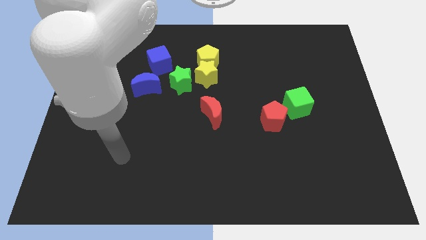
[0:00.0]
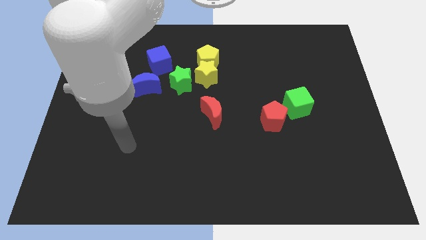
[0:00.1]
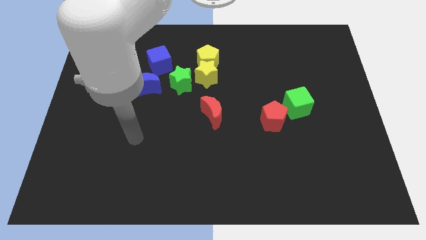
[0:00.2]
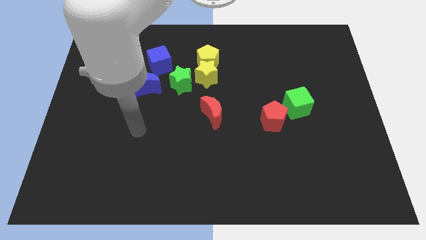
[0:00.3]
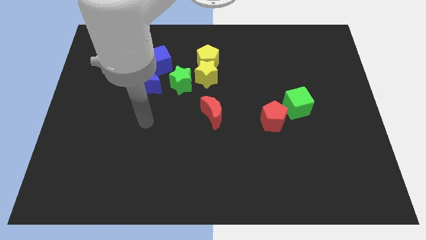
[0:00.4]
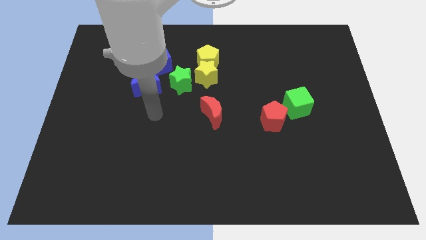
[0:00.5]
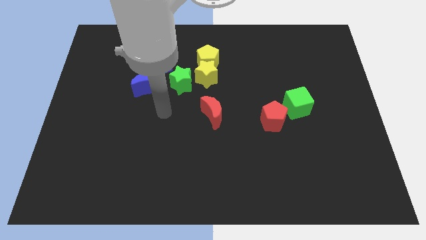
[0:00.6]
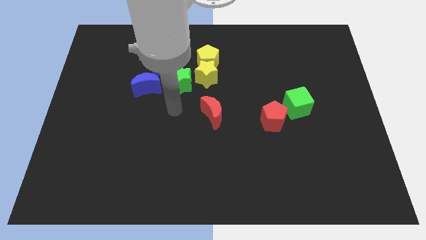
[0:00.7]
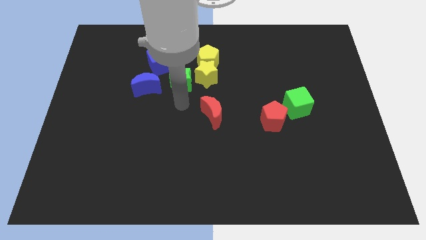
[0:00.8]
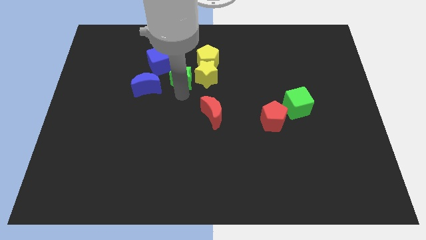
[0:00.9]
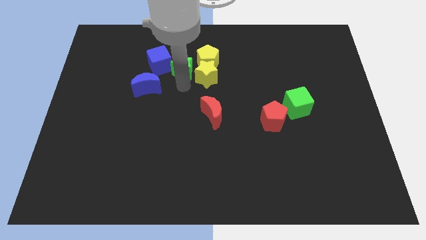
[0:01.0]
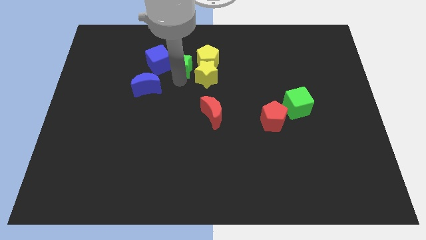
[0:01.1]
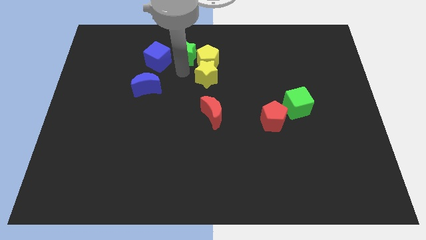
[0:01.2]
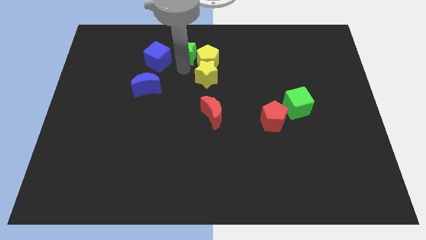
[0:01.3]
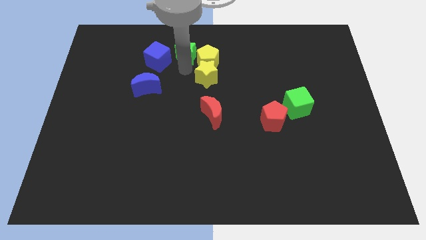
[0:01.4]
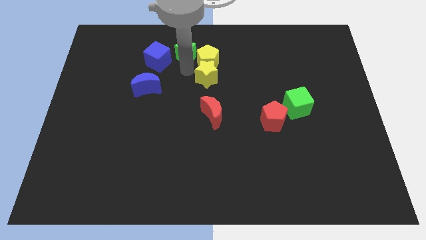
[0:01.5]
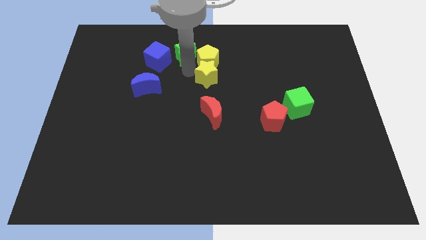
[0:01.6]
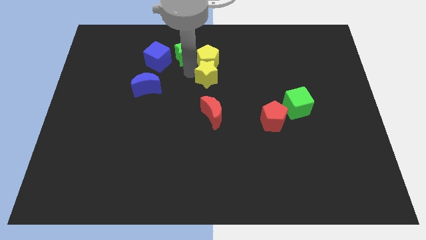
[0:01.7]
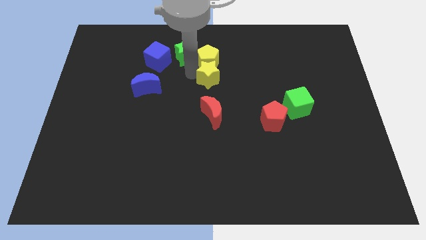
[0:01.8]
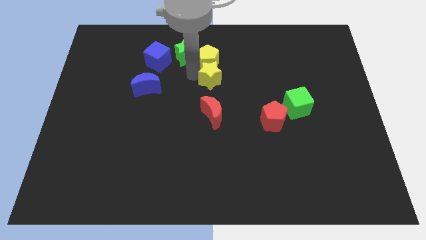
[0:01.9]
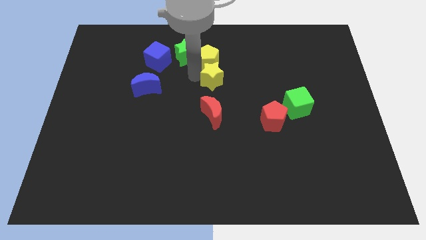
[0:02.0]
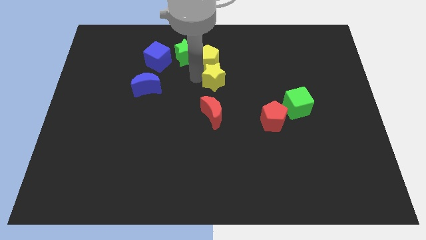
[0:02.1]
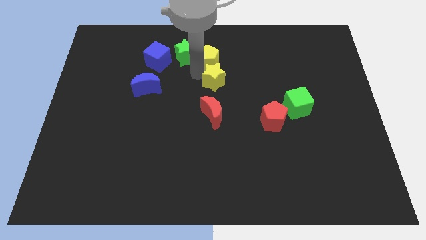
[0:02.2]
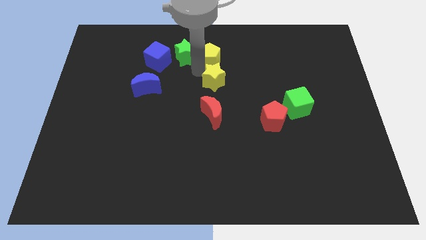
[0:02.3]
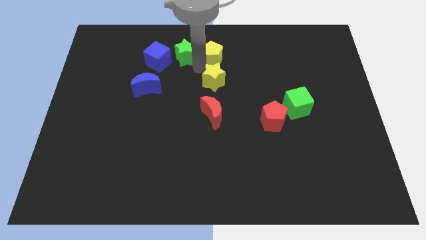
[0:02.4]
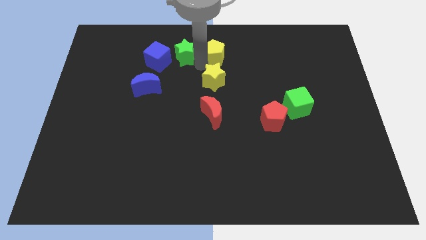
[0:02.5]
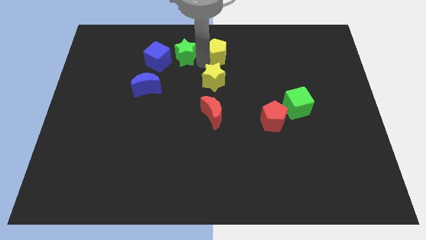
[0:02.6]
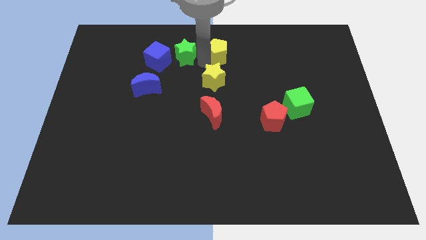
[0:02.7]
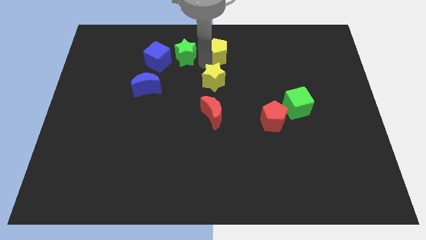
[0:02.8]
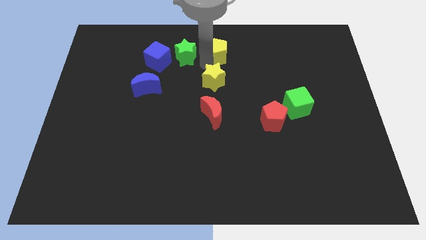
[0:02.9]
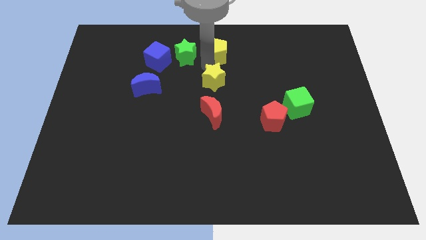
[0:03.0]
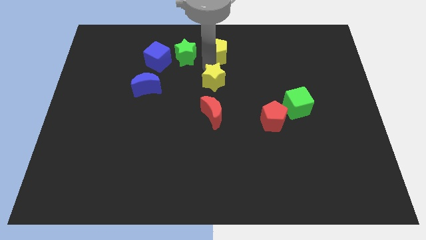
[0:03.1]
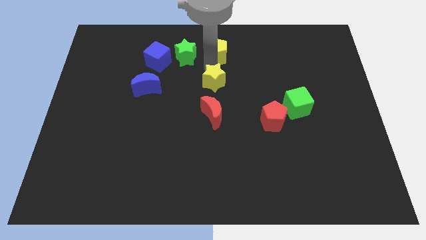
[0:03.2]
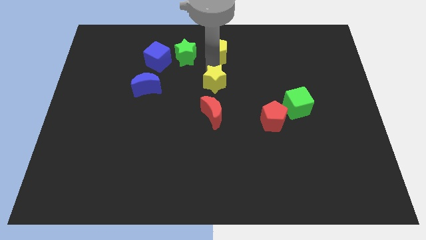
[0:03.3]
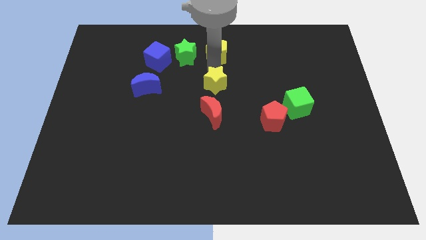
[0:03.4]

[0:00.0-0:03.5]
move the yellow star away from the yellow pentagon and green star

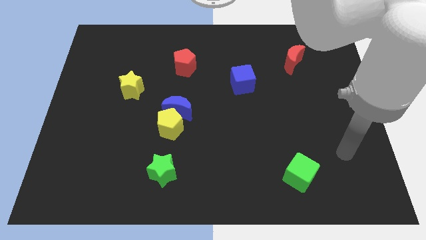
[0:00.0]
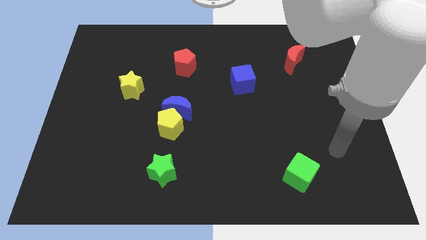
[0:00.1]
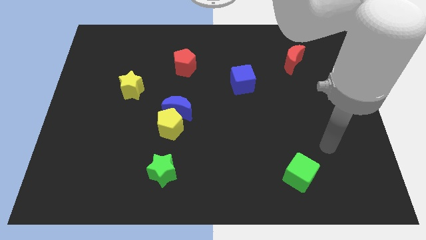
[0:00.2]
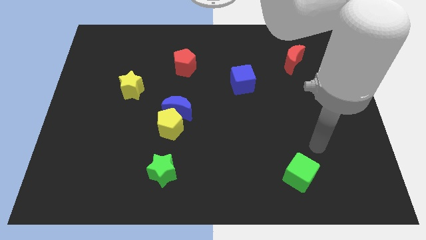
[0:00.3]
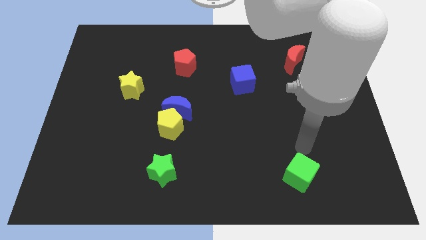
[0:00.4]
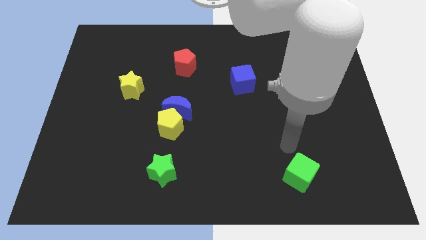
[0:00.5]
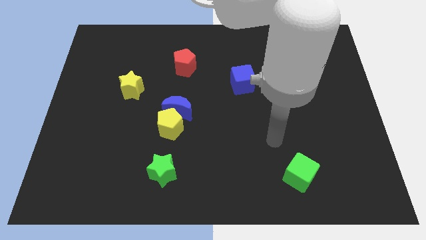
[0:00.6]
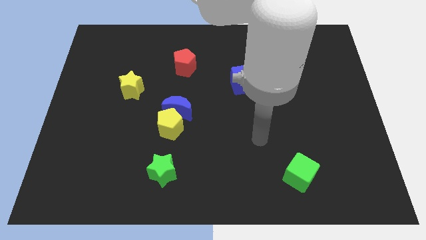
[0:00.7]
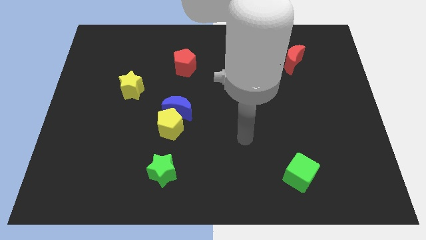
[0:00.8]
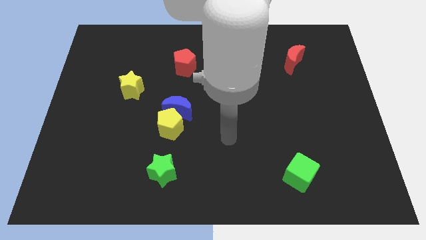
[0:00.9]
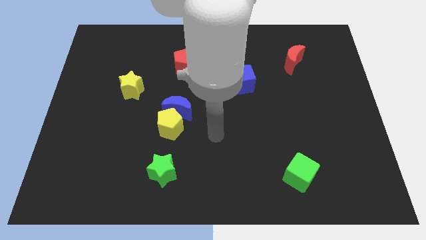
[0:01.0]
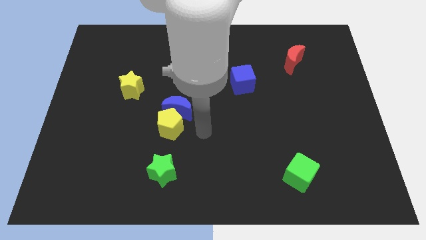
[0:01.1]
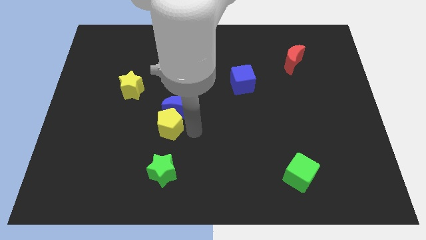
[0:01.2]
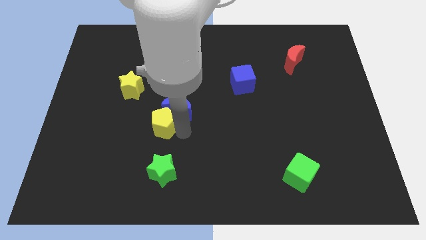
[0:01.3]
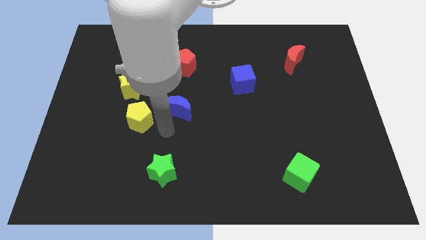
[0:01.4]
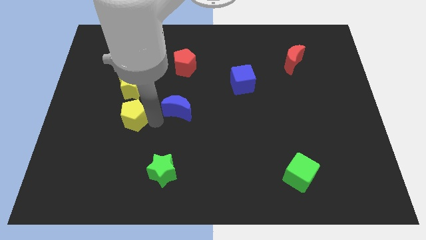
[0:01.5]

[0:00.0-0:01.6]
move the blue moon away from the yellow pentagon

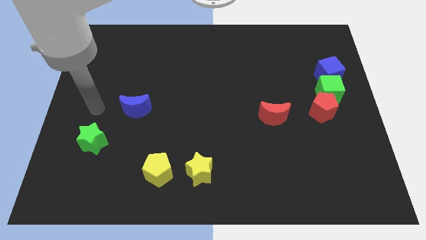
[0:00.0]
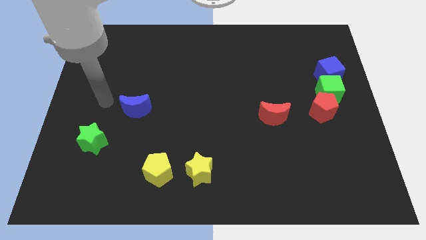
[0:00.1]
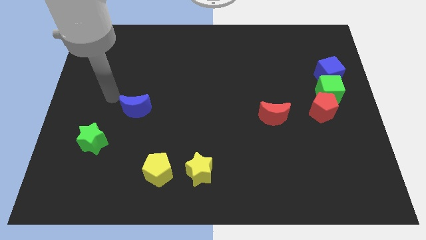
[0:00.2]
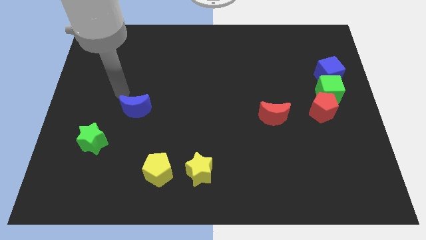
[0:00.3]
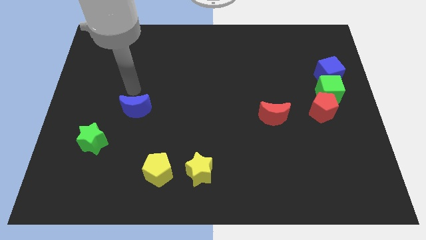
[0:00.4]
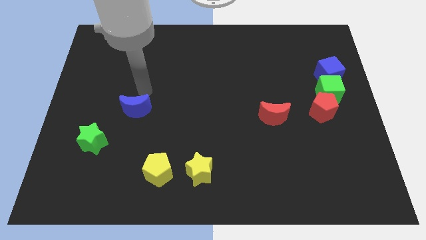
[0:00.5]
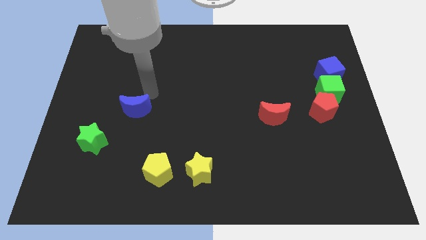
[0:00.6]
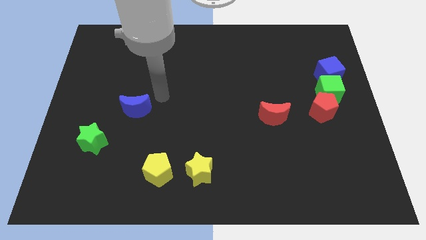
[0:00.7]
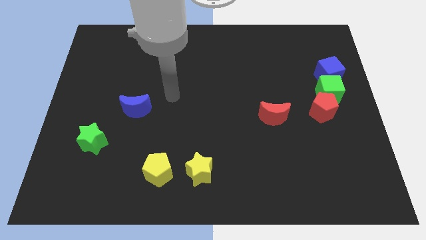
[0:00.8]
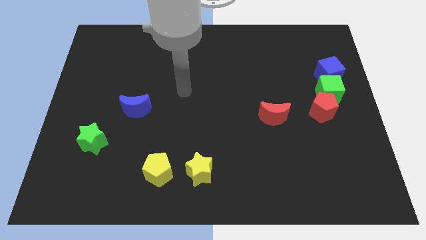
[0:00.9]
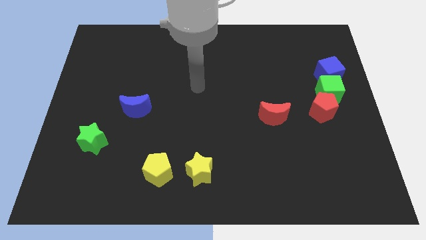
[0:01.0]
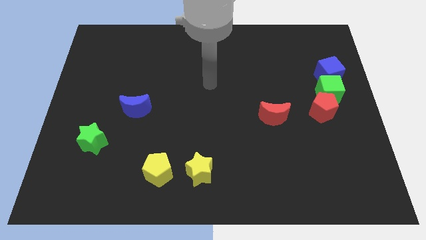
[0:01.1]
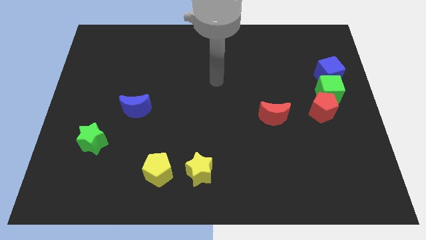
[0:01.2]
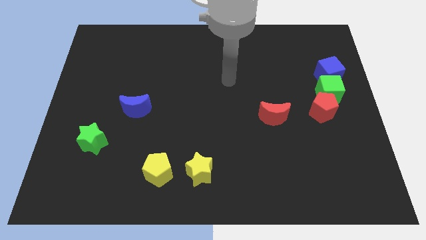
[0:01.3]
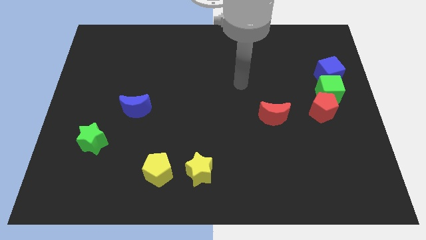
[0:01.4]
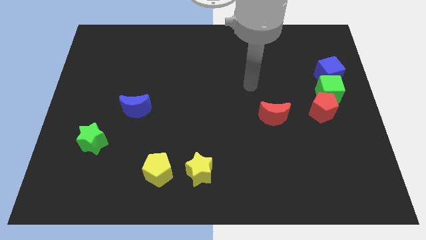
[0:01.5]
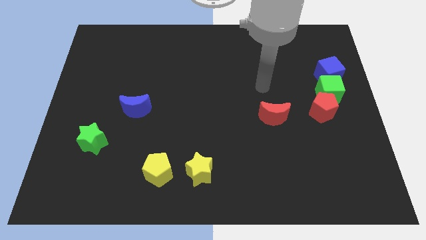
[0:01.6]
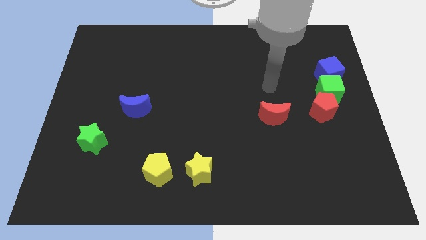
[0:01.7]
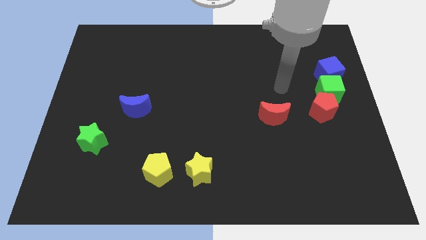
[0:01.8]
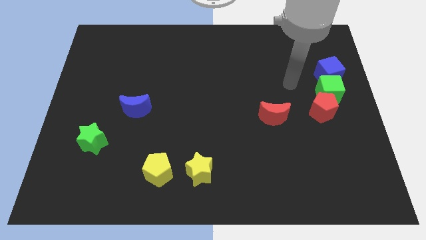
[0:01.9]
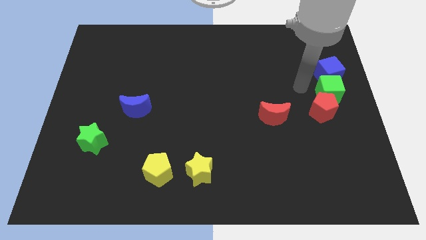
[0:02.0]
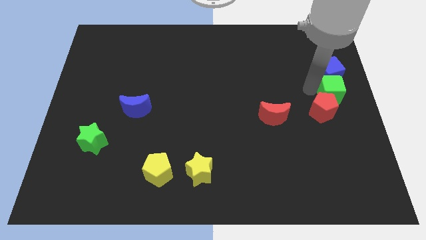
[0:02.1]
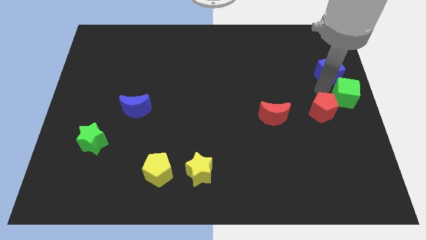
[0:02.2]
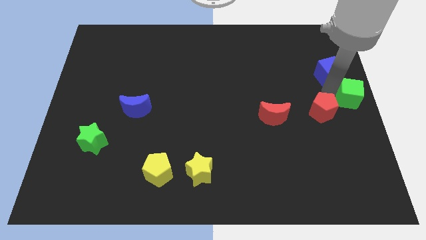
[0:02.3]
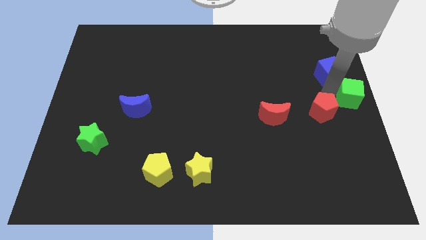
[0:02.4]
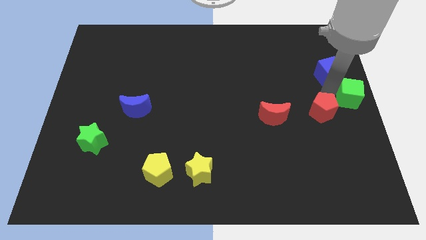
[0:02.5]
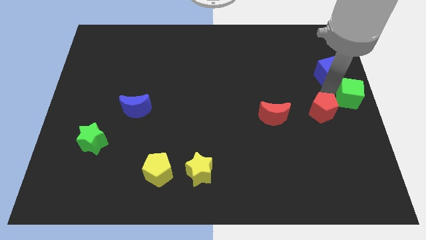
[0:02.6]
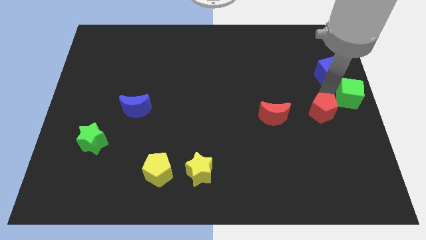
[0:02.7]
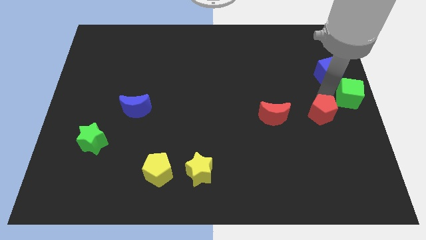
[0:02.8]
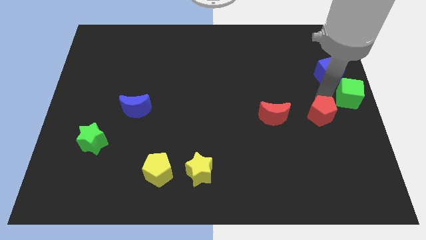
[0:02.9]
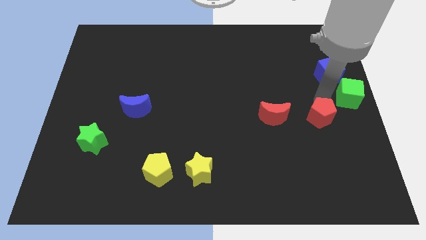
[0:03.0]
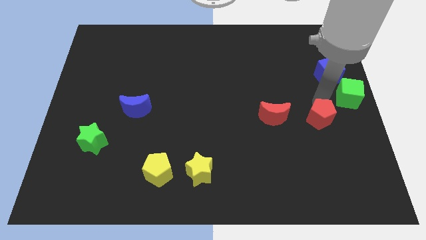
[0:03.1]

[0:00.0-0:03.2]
pull the red pentagon apart from the green cube

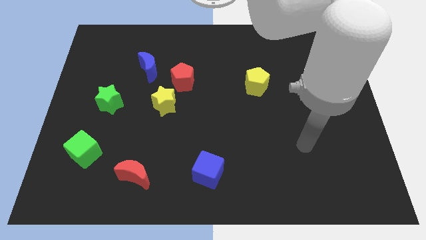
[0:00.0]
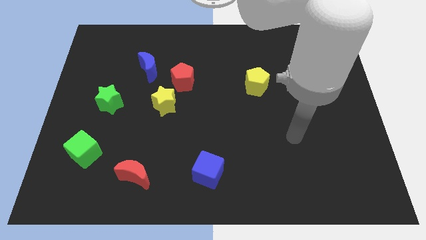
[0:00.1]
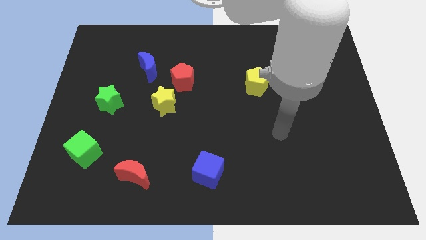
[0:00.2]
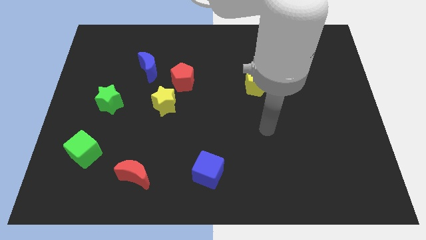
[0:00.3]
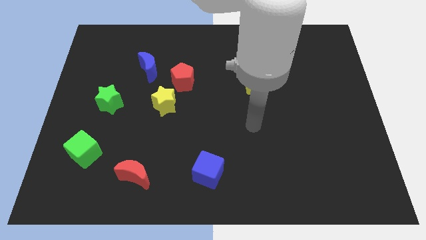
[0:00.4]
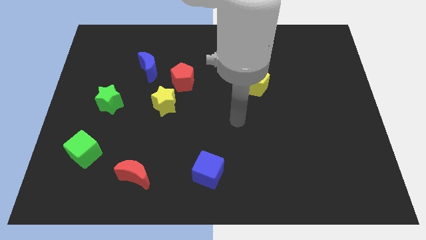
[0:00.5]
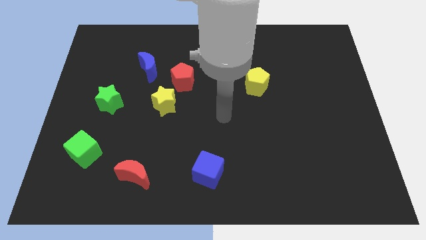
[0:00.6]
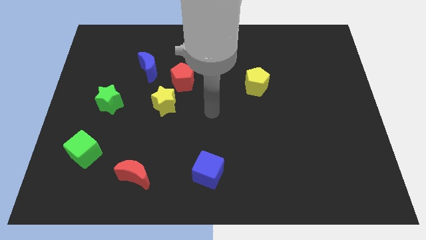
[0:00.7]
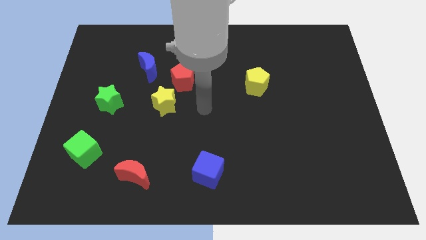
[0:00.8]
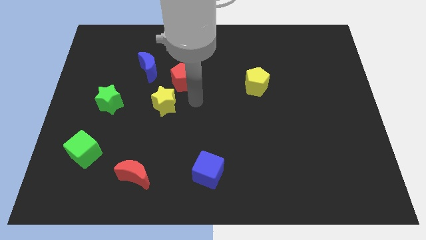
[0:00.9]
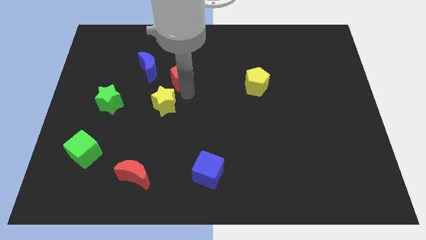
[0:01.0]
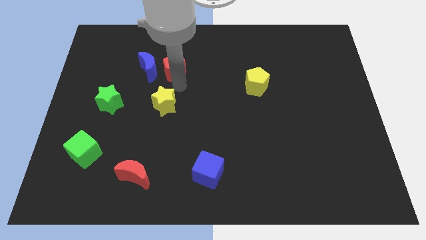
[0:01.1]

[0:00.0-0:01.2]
pull the yellow star apart from the red pentagon
